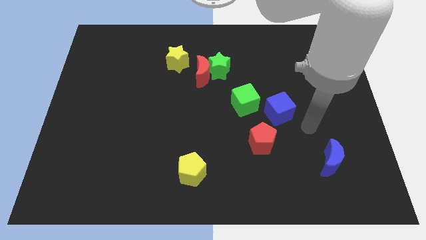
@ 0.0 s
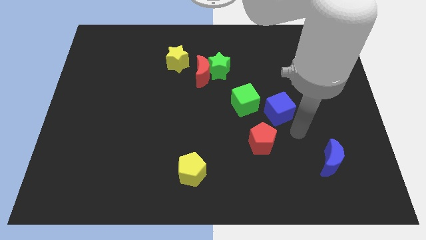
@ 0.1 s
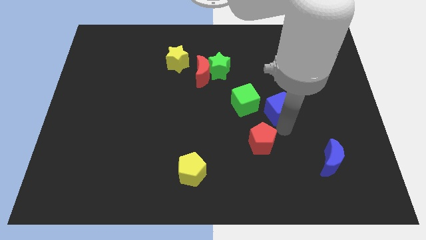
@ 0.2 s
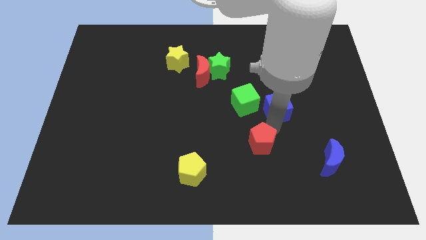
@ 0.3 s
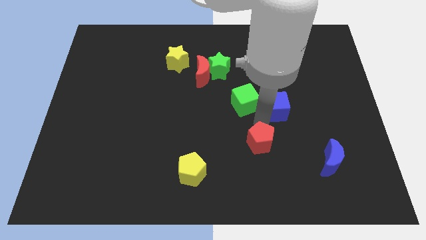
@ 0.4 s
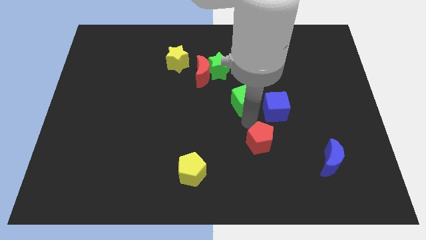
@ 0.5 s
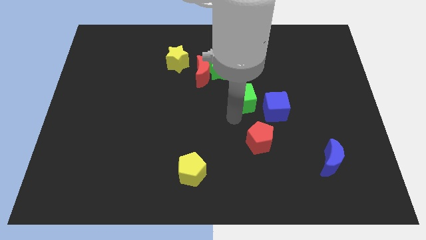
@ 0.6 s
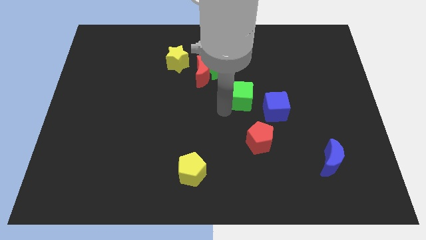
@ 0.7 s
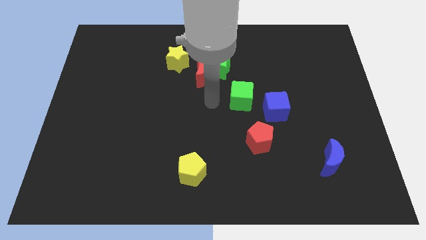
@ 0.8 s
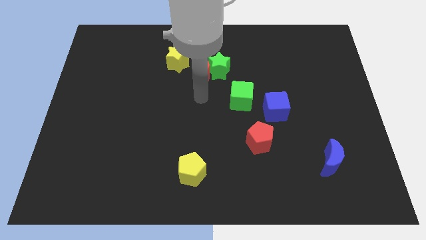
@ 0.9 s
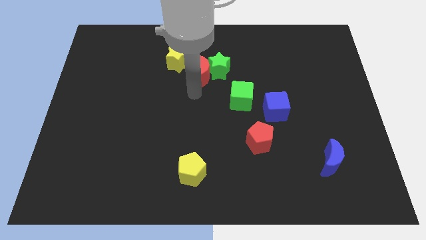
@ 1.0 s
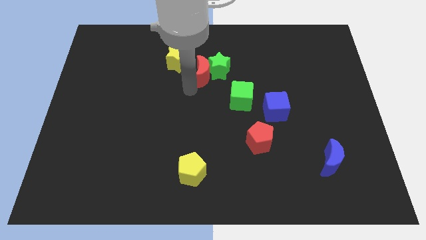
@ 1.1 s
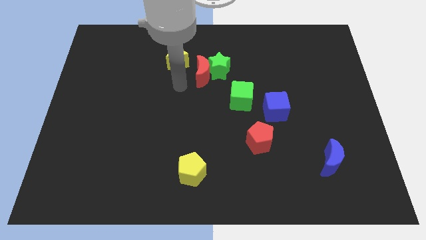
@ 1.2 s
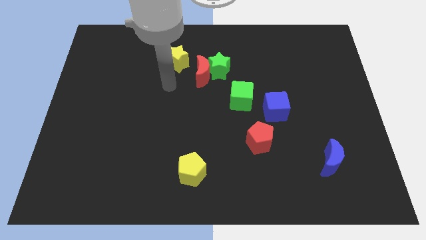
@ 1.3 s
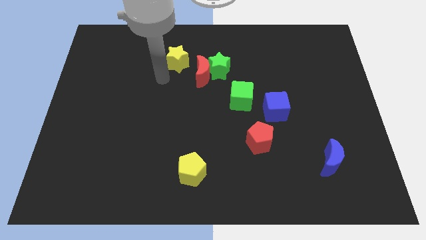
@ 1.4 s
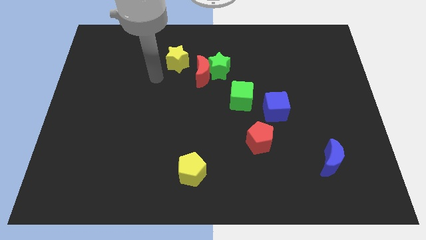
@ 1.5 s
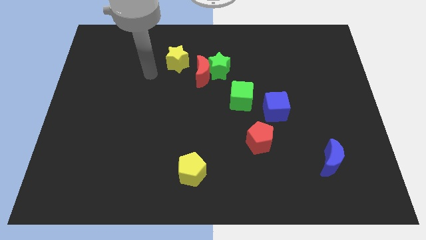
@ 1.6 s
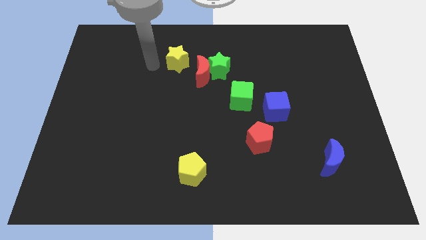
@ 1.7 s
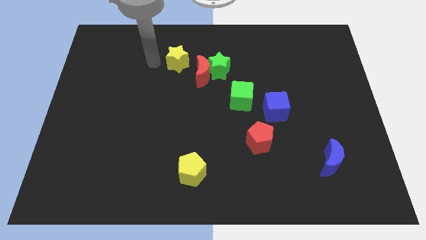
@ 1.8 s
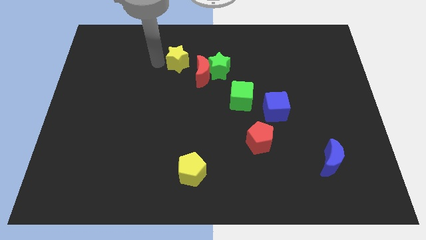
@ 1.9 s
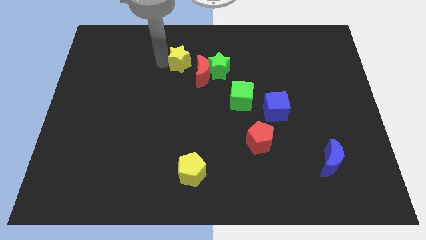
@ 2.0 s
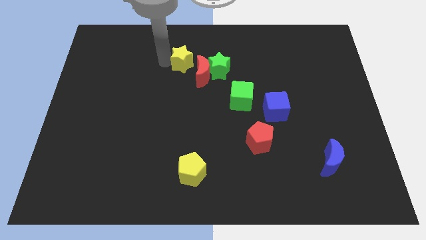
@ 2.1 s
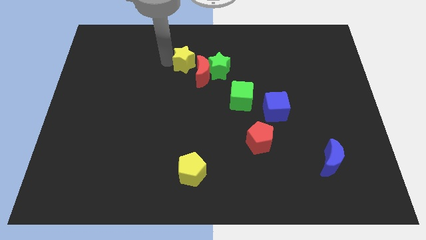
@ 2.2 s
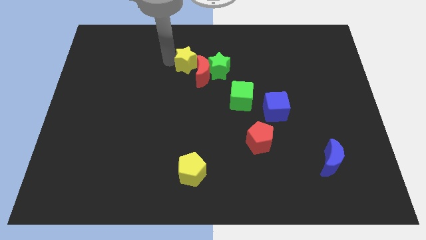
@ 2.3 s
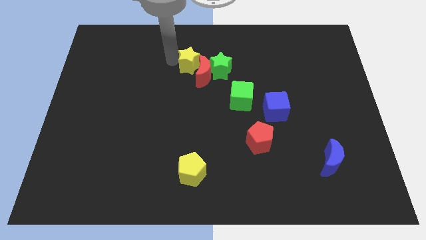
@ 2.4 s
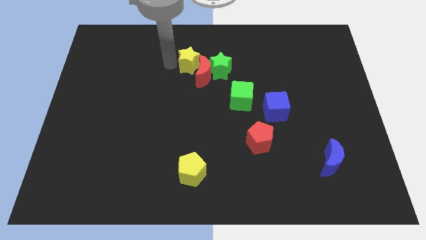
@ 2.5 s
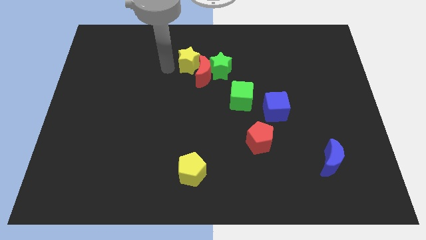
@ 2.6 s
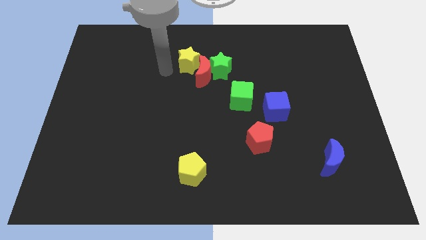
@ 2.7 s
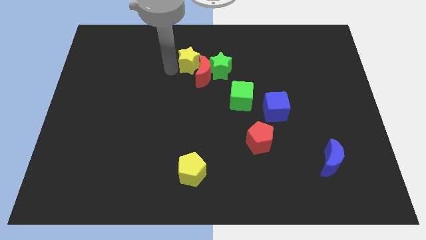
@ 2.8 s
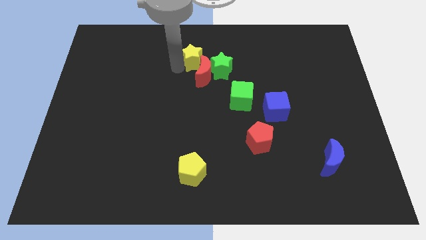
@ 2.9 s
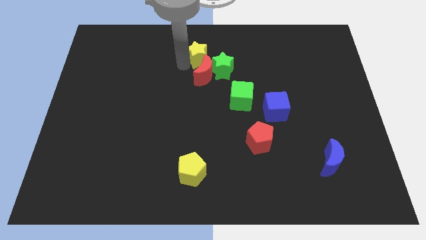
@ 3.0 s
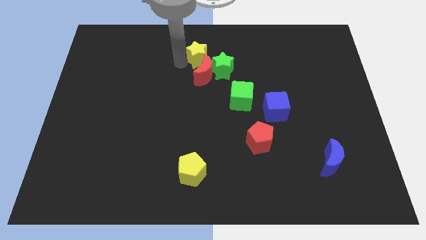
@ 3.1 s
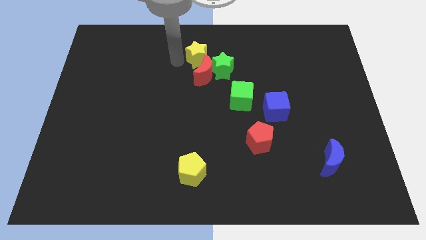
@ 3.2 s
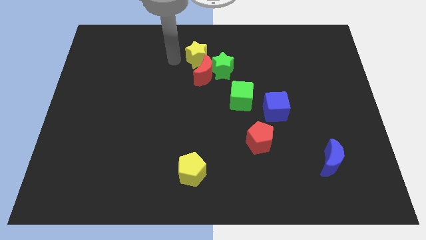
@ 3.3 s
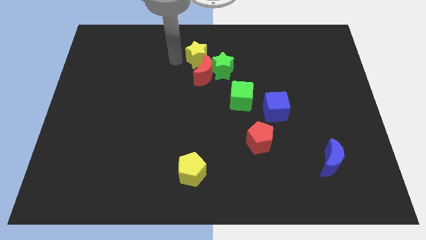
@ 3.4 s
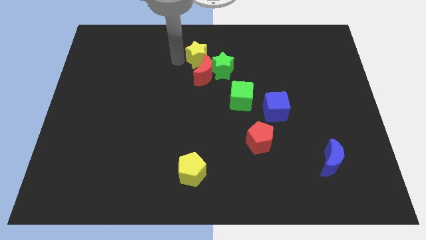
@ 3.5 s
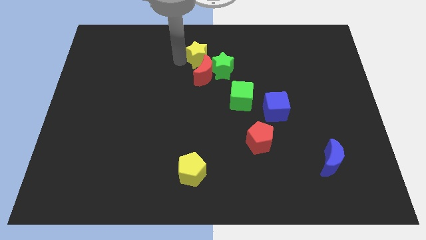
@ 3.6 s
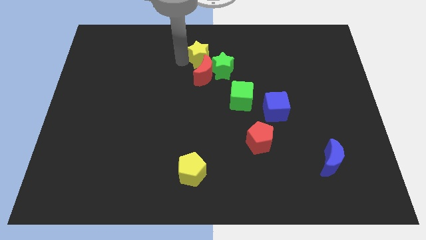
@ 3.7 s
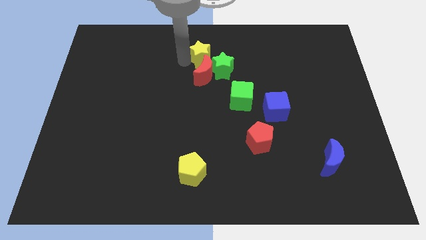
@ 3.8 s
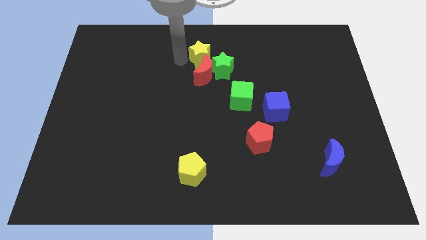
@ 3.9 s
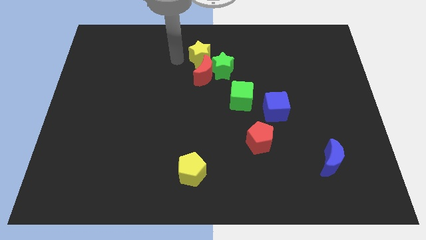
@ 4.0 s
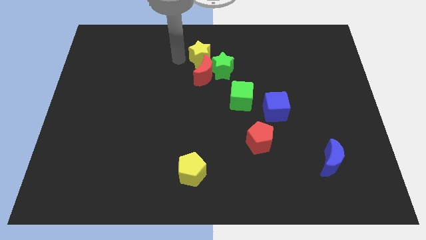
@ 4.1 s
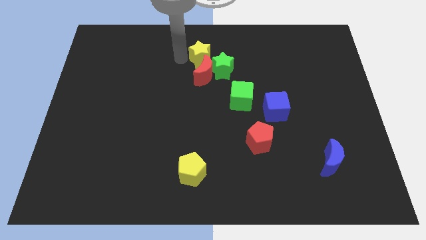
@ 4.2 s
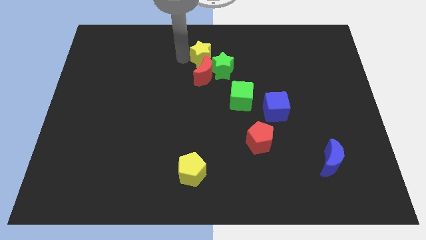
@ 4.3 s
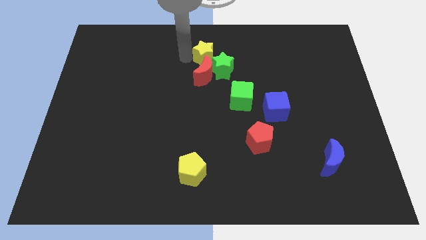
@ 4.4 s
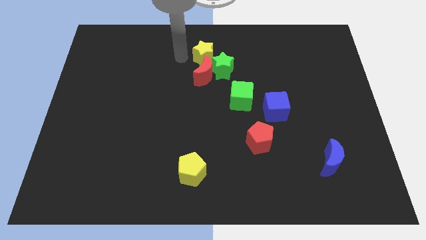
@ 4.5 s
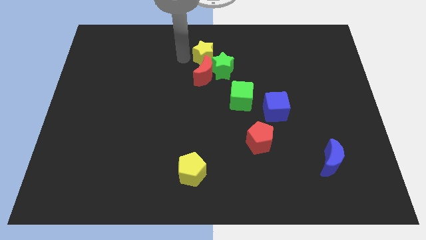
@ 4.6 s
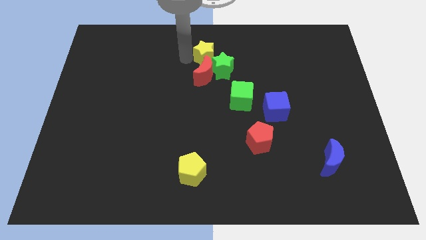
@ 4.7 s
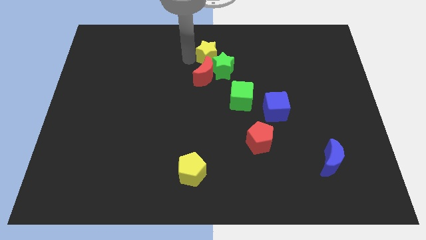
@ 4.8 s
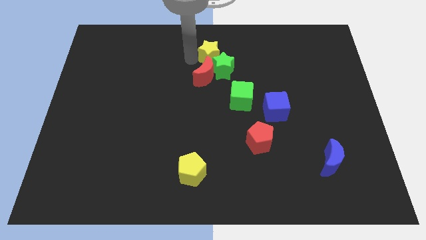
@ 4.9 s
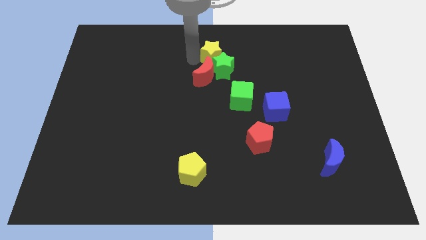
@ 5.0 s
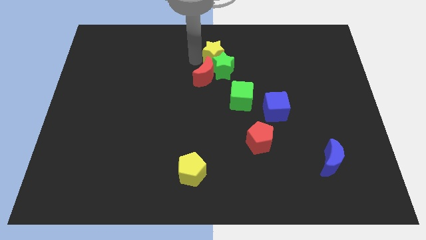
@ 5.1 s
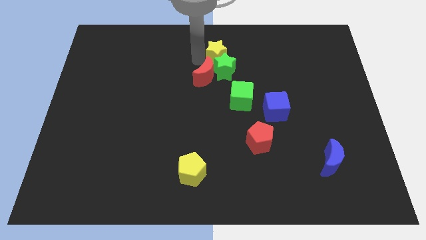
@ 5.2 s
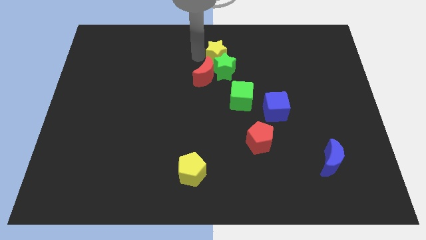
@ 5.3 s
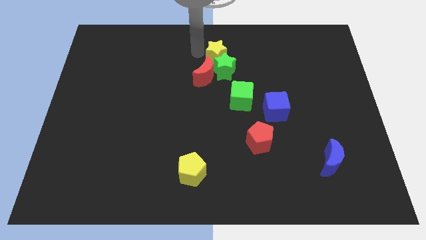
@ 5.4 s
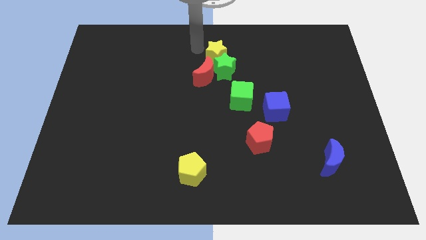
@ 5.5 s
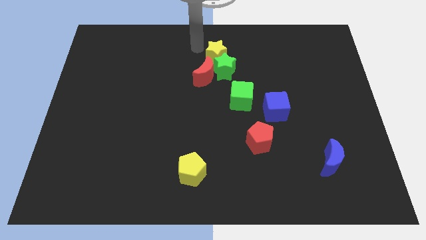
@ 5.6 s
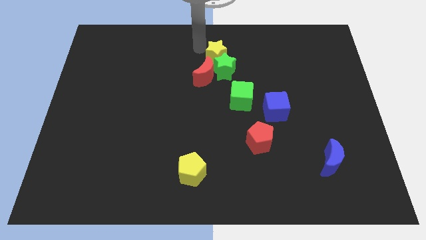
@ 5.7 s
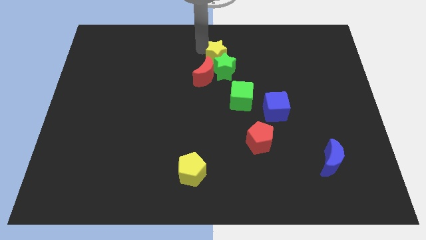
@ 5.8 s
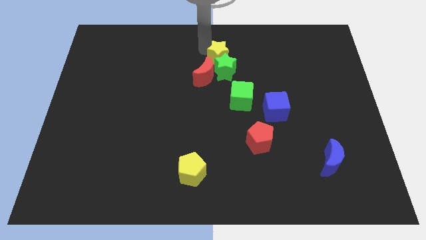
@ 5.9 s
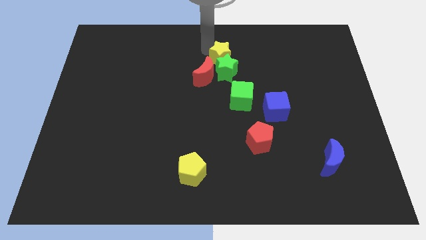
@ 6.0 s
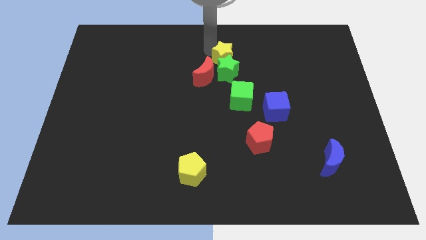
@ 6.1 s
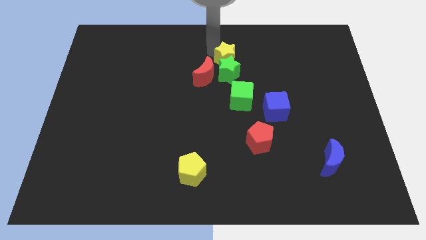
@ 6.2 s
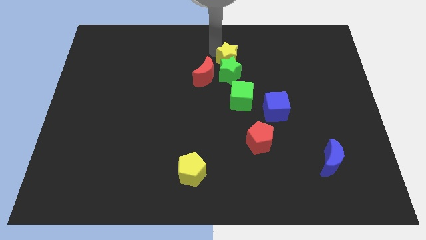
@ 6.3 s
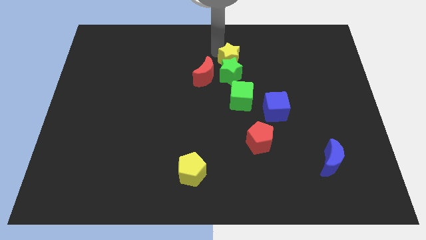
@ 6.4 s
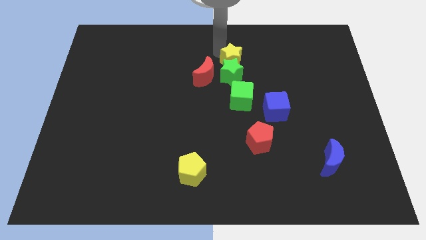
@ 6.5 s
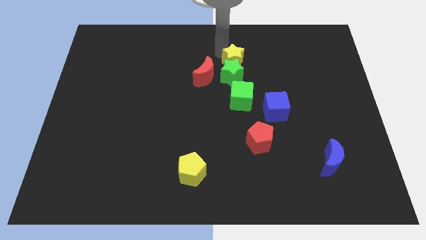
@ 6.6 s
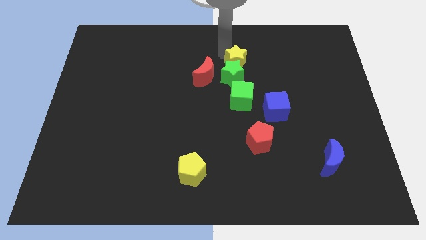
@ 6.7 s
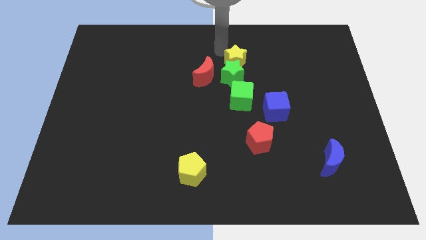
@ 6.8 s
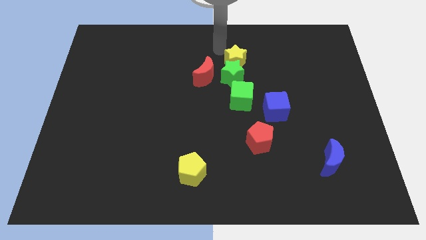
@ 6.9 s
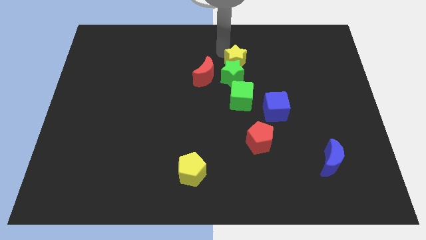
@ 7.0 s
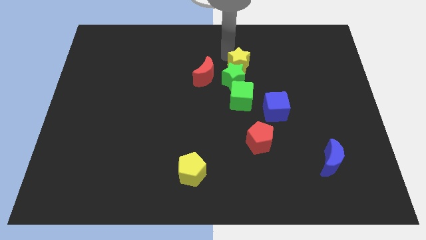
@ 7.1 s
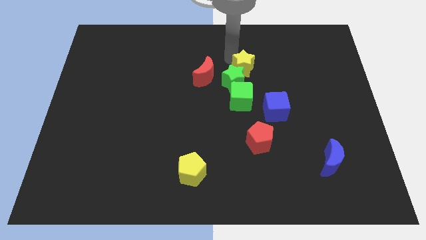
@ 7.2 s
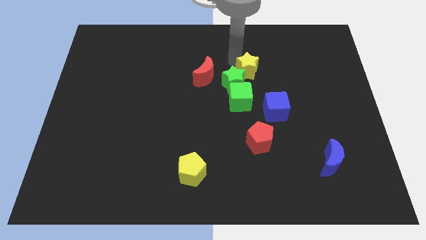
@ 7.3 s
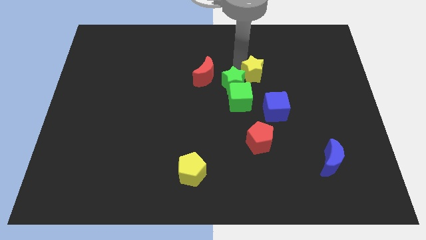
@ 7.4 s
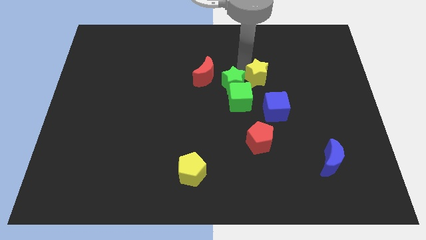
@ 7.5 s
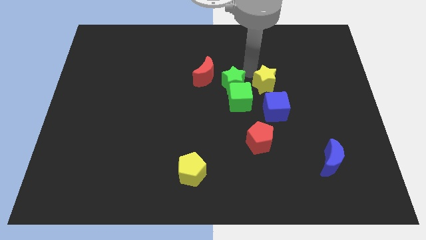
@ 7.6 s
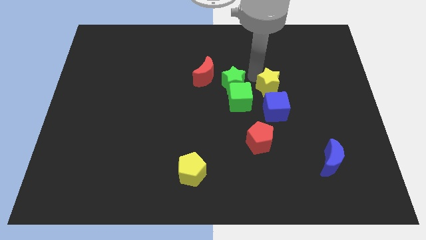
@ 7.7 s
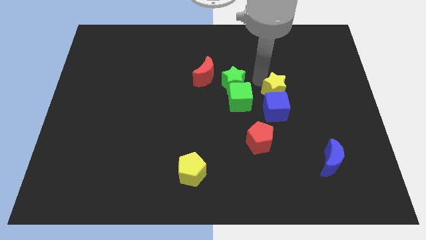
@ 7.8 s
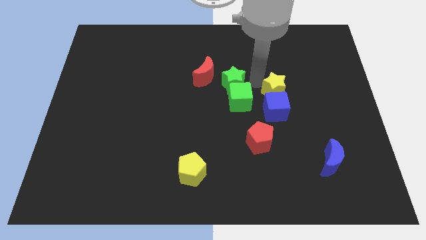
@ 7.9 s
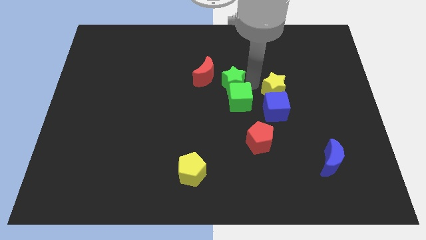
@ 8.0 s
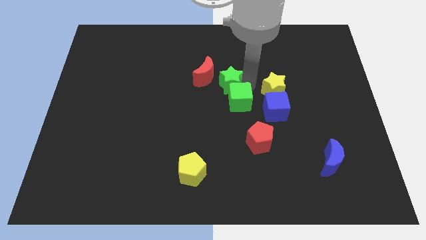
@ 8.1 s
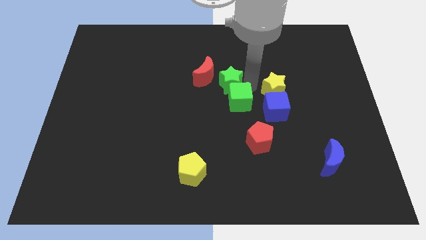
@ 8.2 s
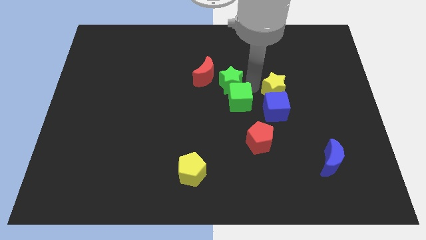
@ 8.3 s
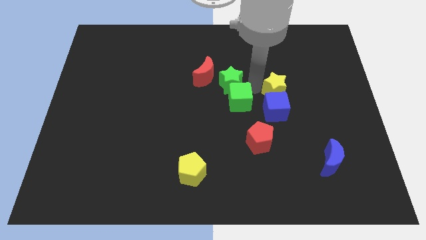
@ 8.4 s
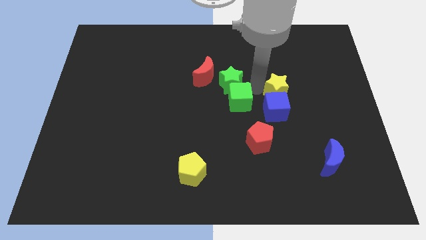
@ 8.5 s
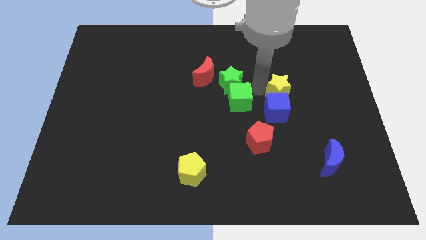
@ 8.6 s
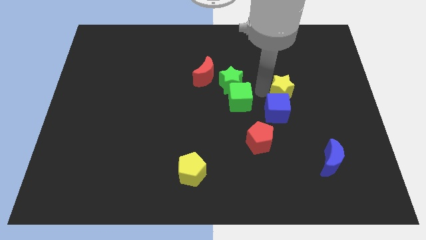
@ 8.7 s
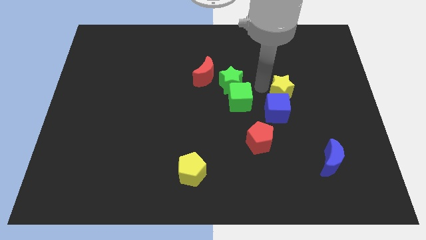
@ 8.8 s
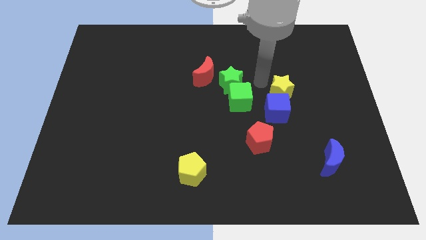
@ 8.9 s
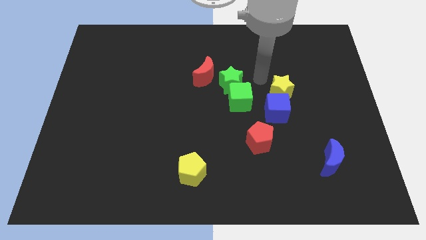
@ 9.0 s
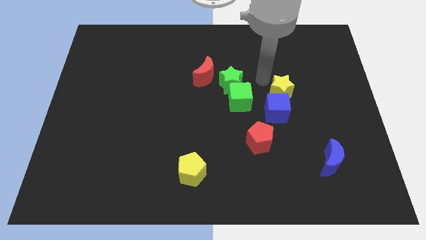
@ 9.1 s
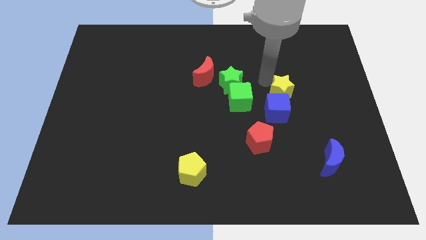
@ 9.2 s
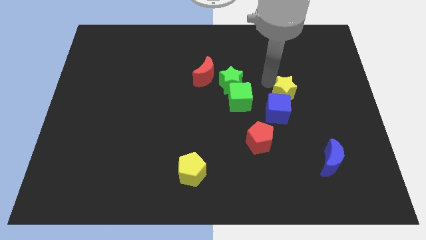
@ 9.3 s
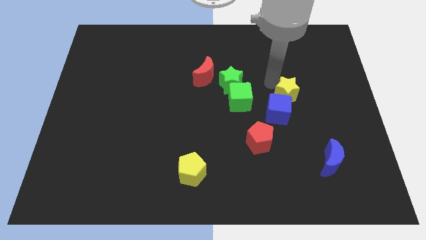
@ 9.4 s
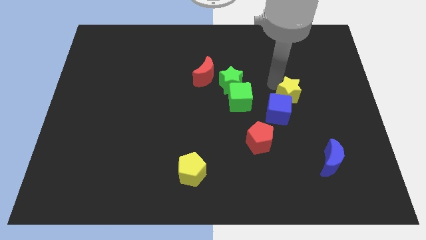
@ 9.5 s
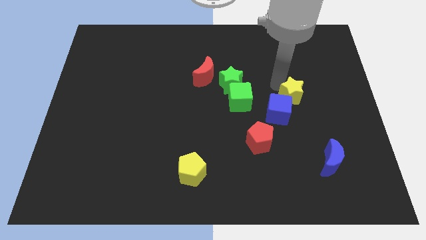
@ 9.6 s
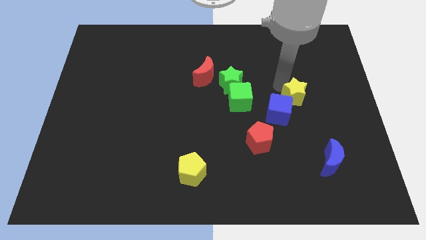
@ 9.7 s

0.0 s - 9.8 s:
slide the yellow star just right of the blue cube
